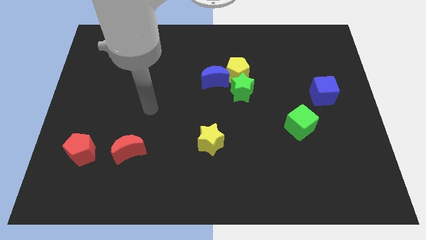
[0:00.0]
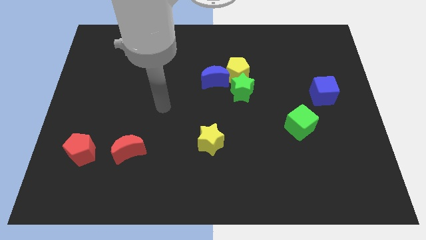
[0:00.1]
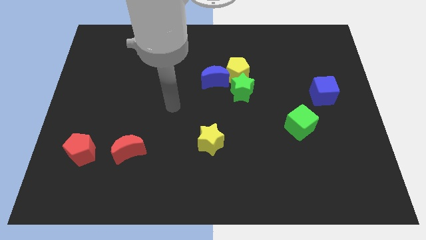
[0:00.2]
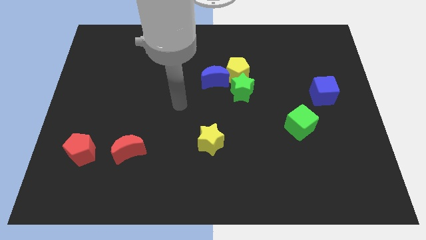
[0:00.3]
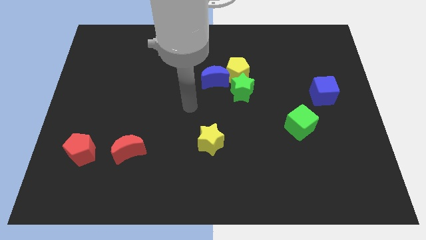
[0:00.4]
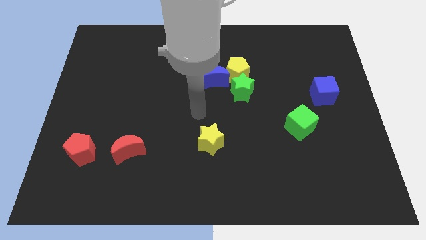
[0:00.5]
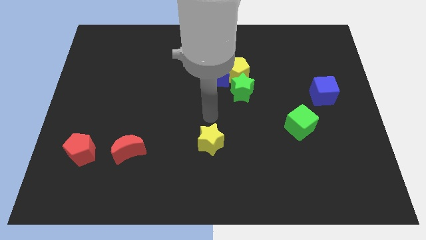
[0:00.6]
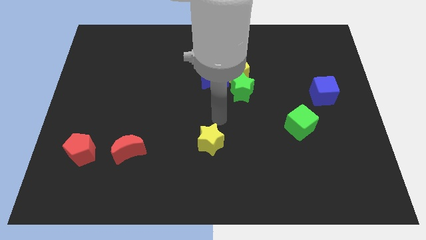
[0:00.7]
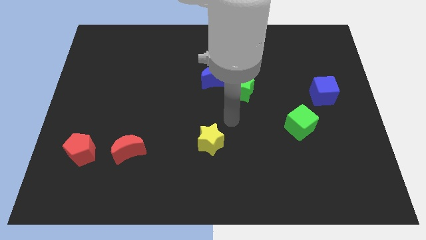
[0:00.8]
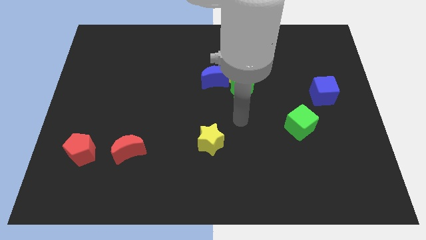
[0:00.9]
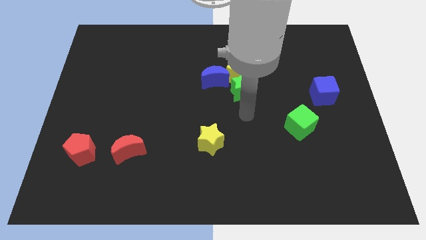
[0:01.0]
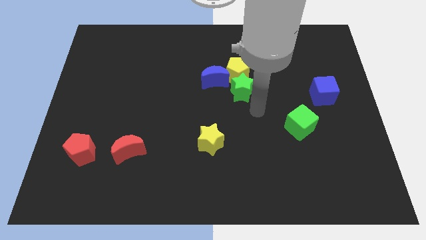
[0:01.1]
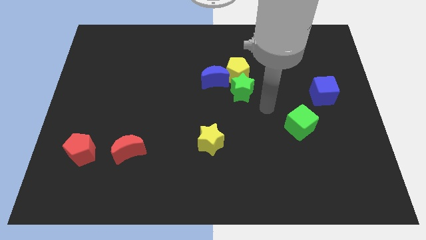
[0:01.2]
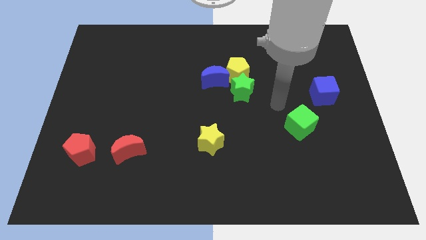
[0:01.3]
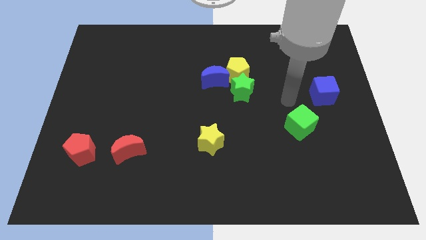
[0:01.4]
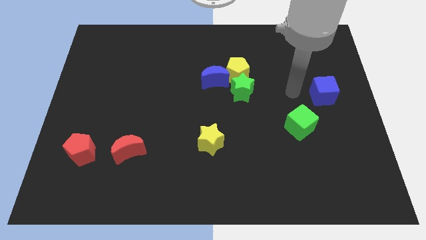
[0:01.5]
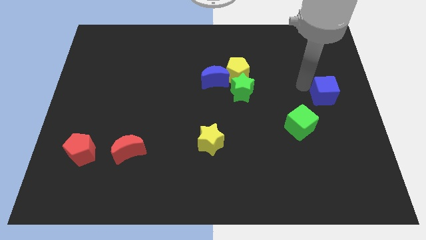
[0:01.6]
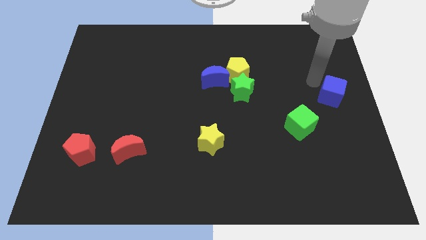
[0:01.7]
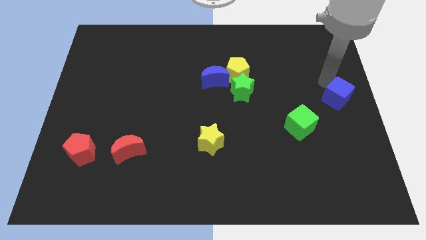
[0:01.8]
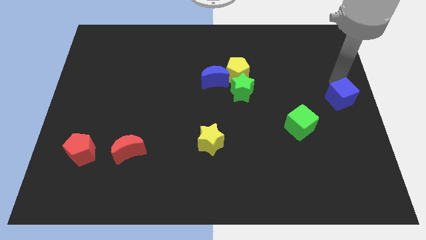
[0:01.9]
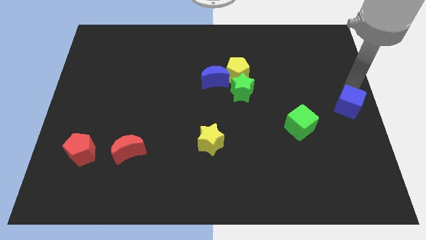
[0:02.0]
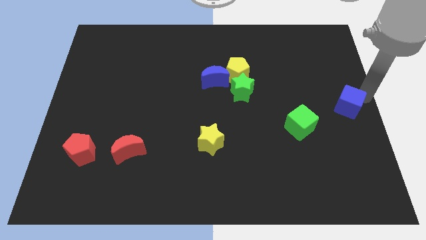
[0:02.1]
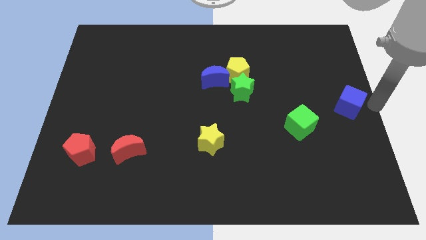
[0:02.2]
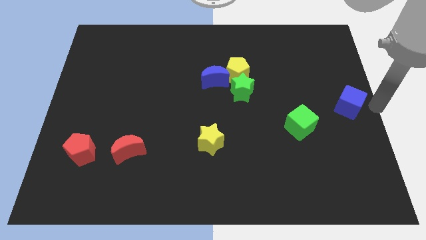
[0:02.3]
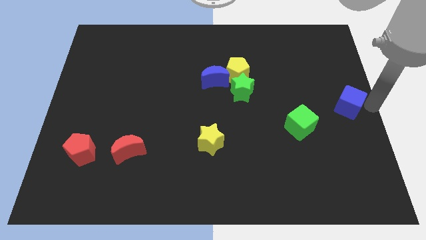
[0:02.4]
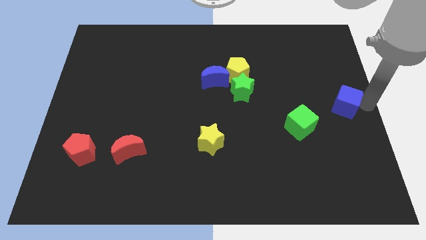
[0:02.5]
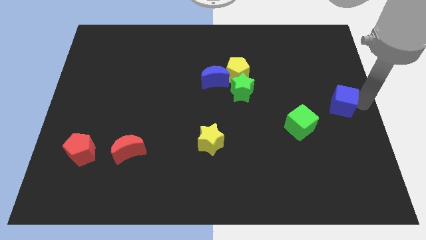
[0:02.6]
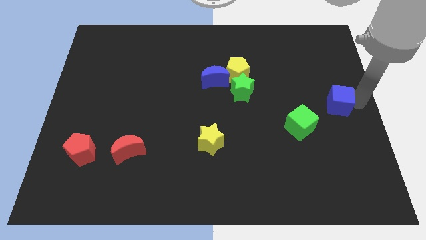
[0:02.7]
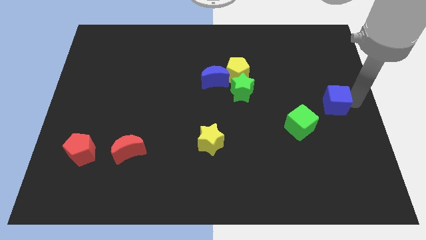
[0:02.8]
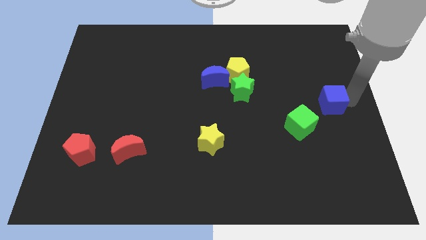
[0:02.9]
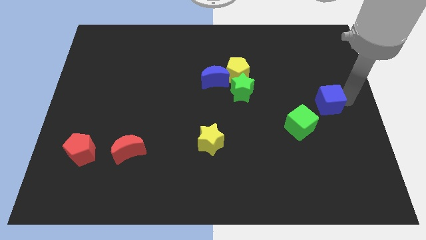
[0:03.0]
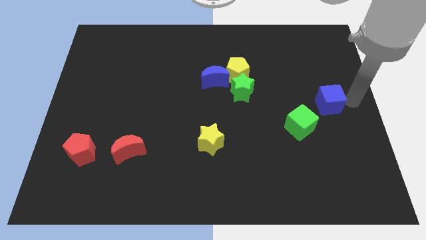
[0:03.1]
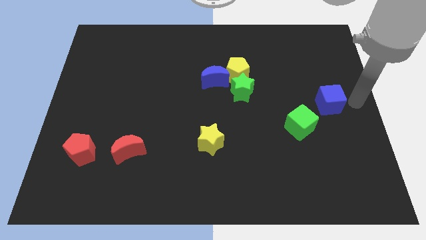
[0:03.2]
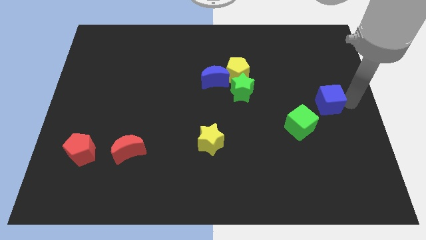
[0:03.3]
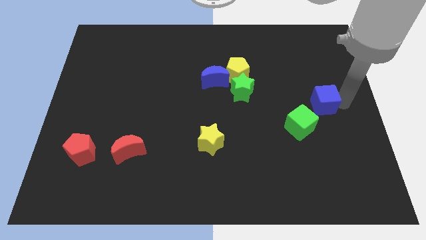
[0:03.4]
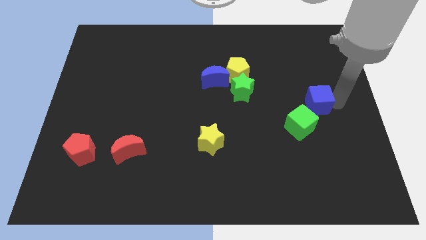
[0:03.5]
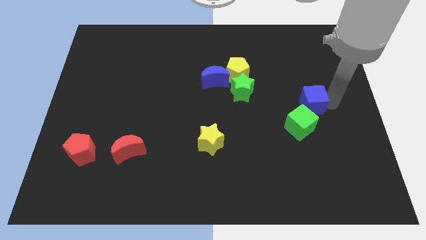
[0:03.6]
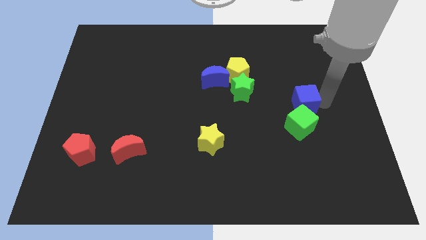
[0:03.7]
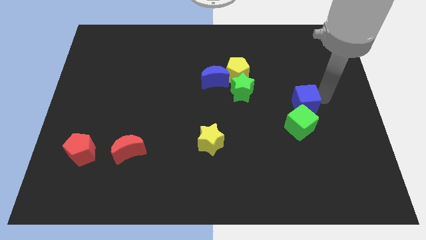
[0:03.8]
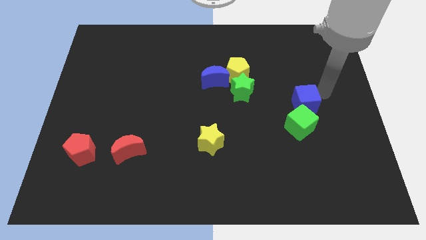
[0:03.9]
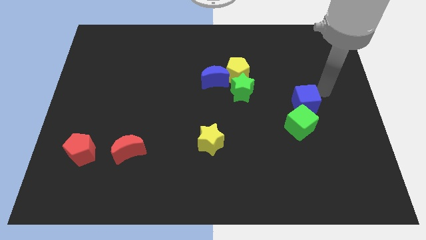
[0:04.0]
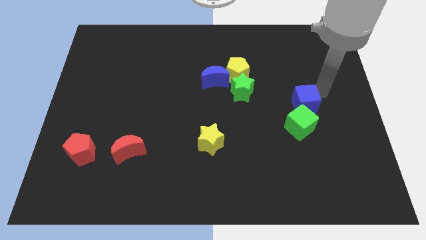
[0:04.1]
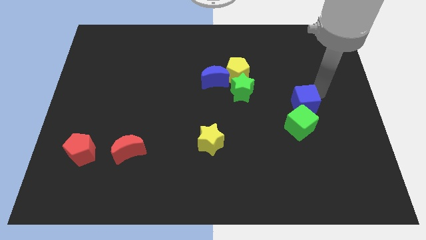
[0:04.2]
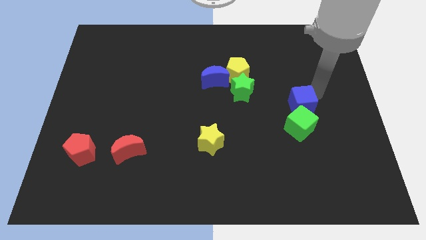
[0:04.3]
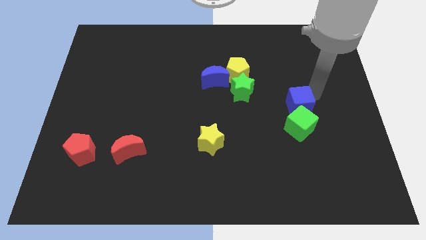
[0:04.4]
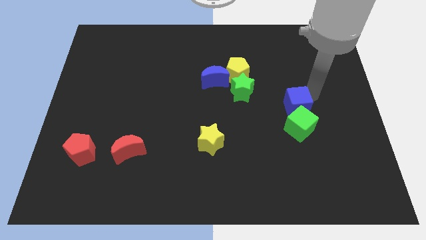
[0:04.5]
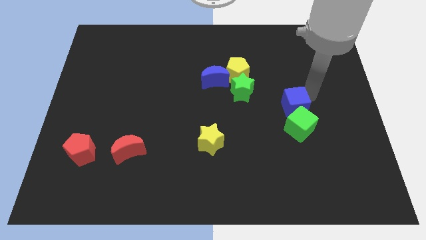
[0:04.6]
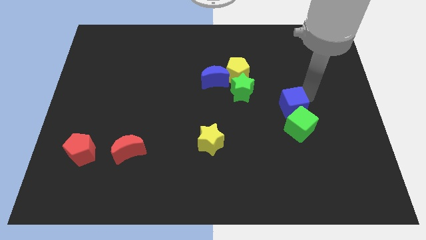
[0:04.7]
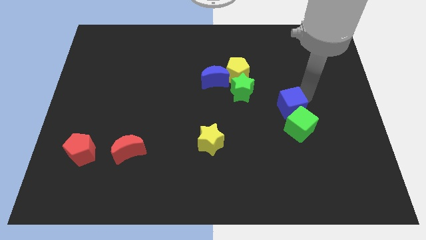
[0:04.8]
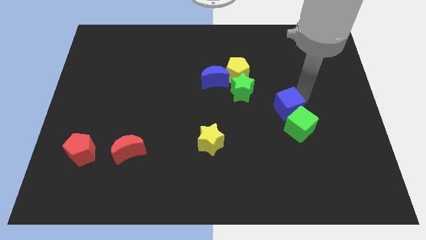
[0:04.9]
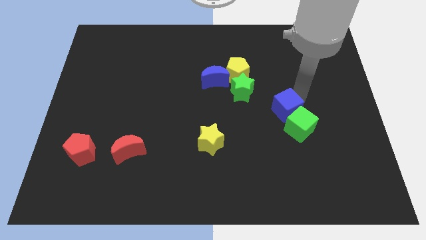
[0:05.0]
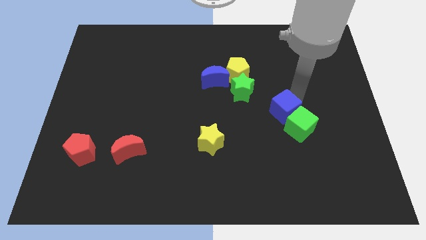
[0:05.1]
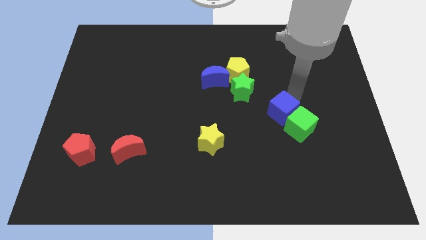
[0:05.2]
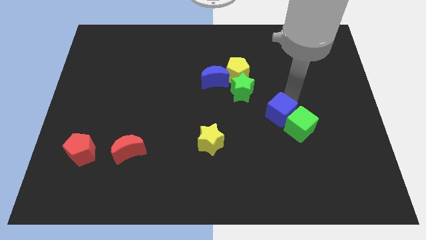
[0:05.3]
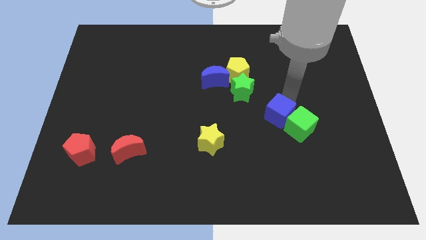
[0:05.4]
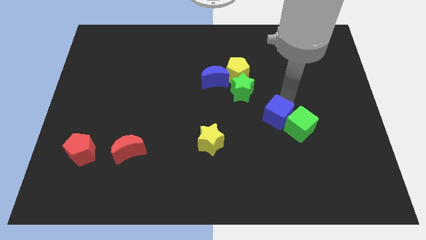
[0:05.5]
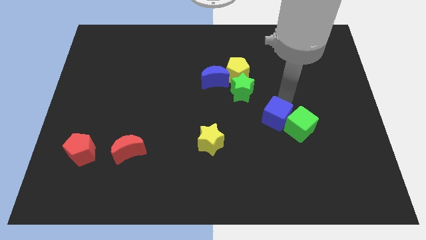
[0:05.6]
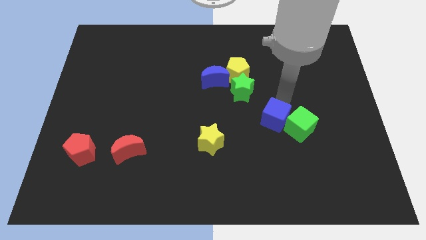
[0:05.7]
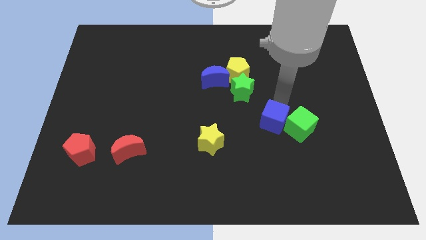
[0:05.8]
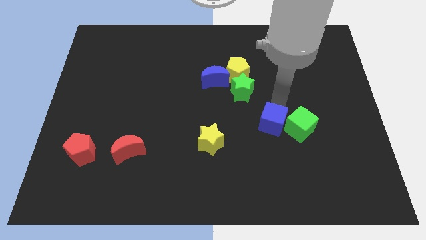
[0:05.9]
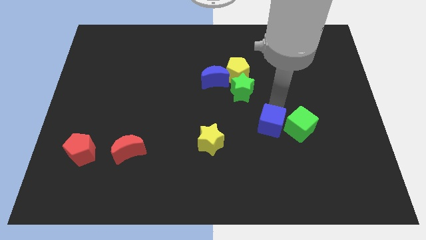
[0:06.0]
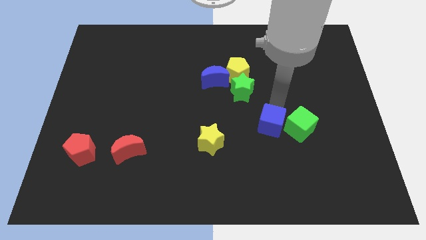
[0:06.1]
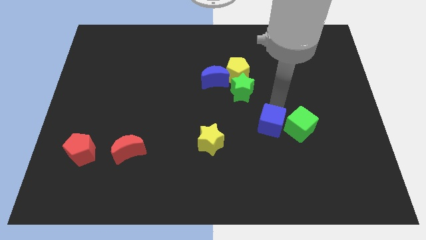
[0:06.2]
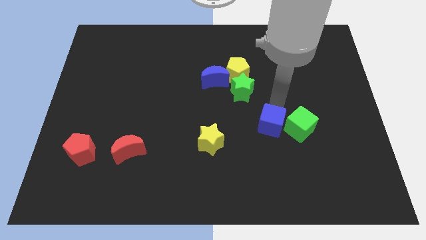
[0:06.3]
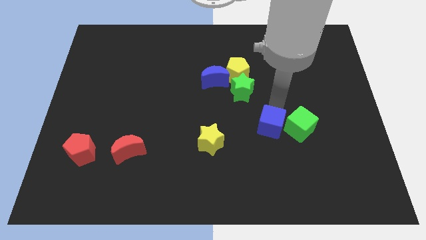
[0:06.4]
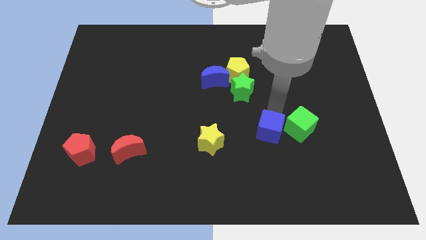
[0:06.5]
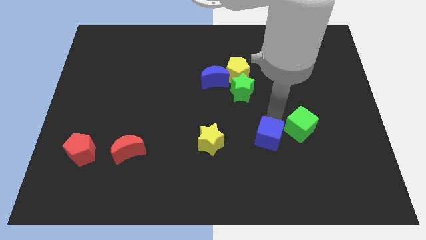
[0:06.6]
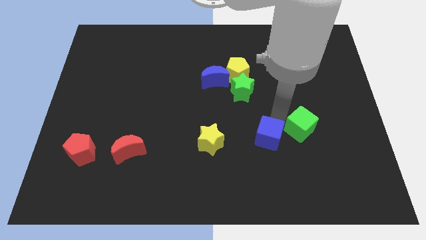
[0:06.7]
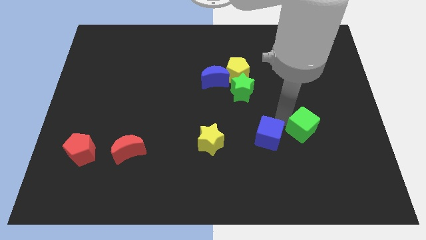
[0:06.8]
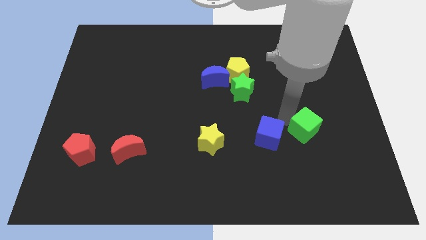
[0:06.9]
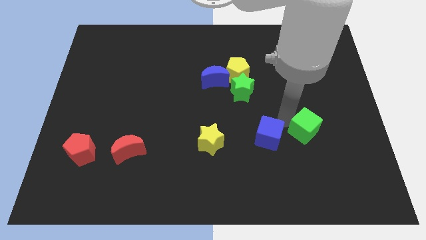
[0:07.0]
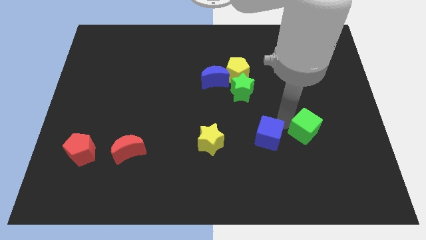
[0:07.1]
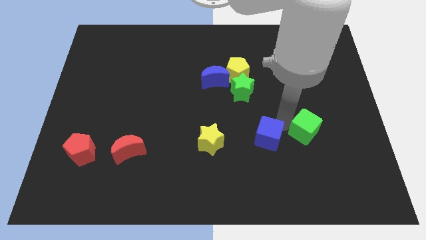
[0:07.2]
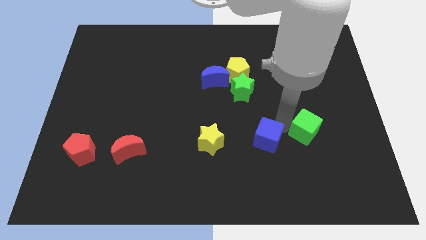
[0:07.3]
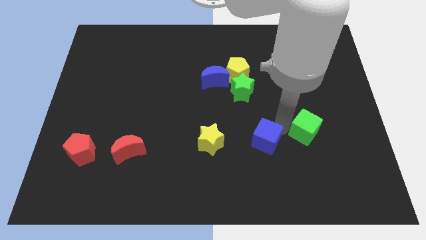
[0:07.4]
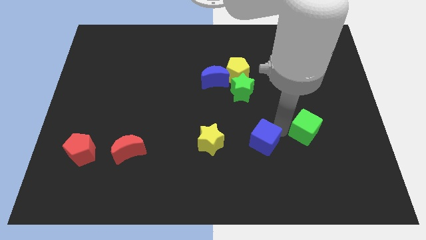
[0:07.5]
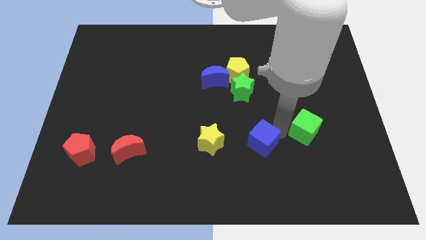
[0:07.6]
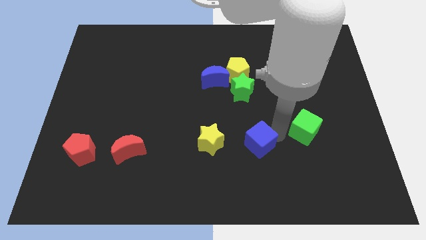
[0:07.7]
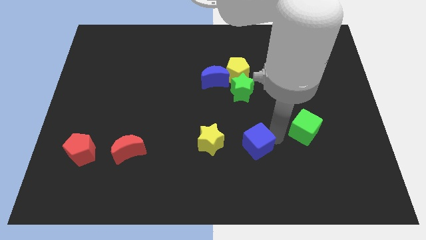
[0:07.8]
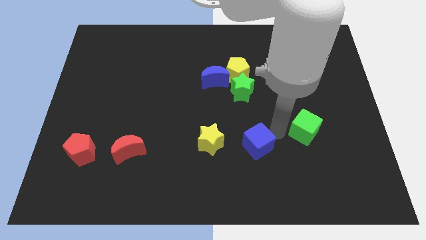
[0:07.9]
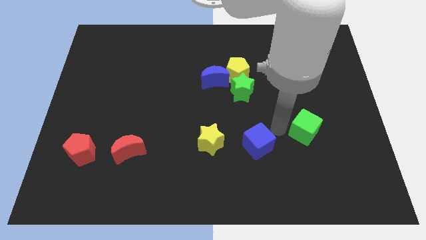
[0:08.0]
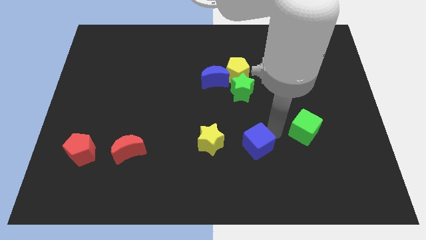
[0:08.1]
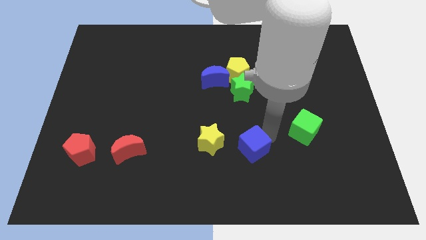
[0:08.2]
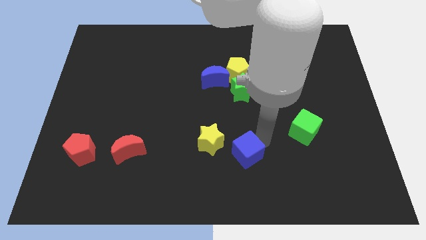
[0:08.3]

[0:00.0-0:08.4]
put the blue cube to the bottom right of the yellow star
